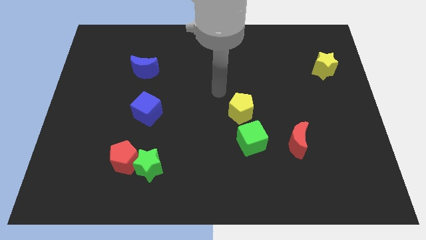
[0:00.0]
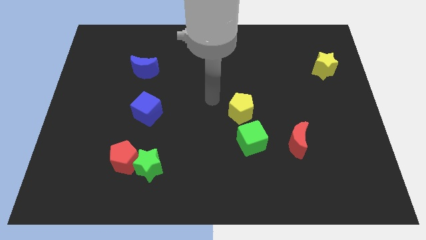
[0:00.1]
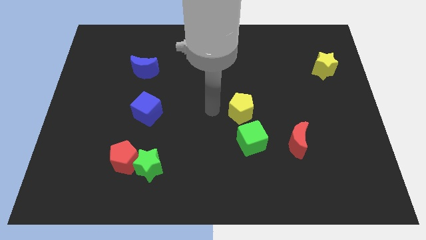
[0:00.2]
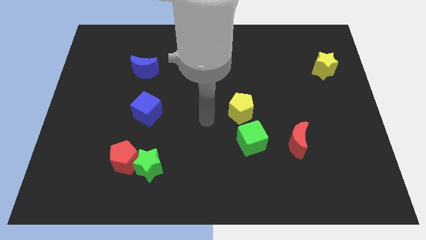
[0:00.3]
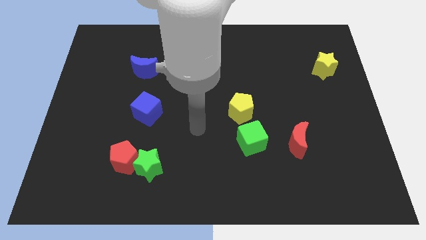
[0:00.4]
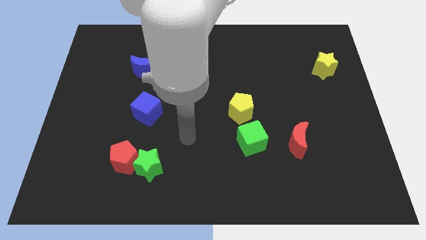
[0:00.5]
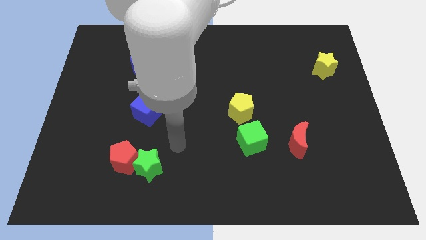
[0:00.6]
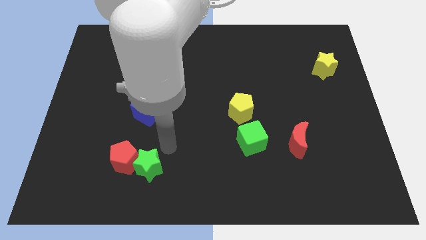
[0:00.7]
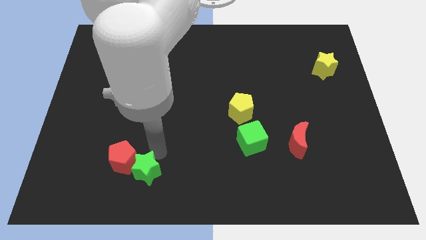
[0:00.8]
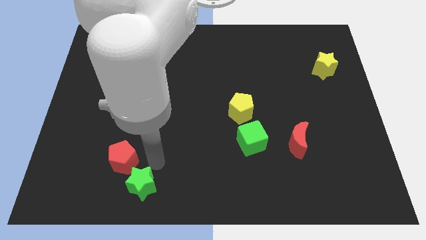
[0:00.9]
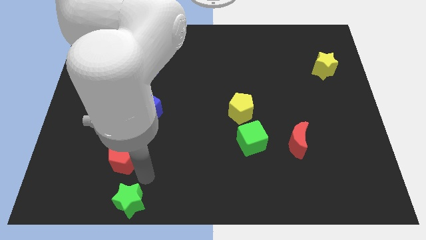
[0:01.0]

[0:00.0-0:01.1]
move the red pentagon away from the green star

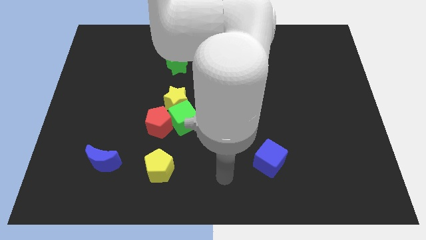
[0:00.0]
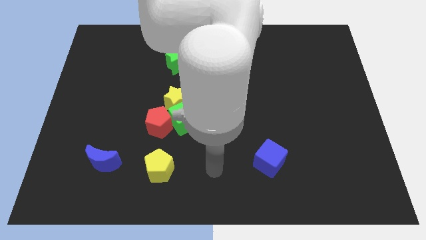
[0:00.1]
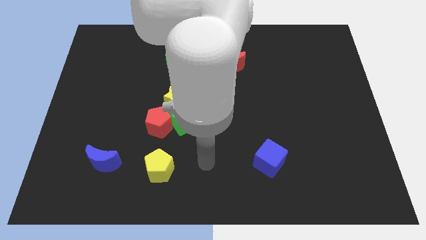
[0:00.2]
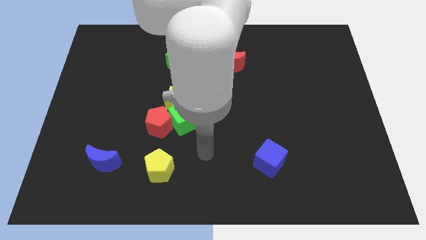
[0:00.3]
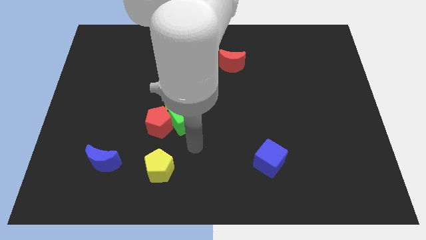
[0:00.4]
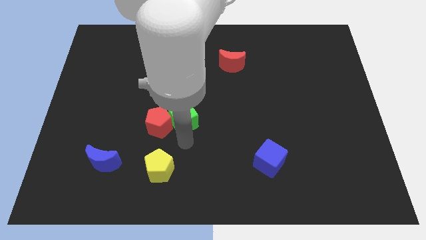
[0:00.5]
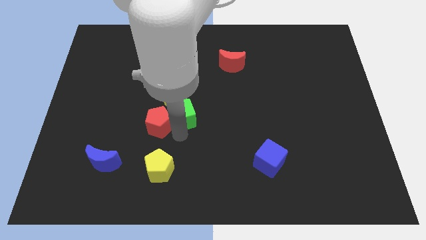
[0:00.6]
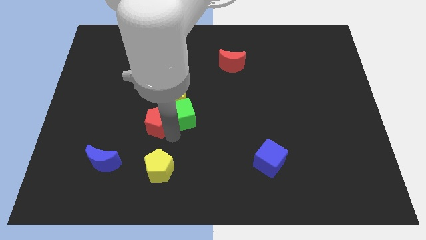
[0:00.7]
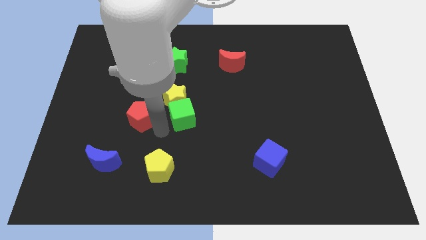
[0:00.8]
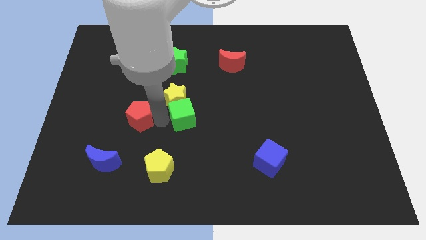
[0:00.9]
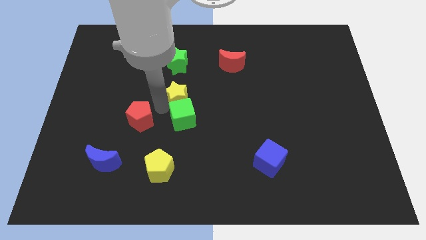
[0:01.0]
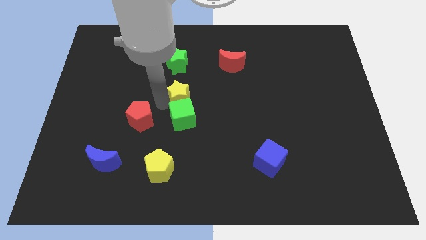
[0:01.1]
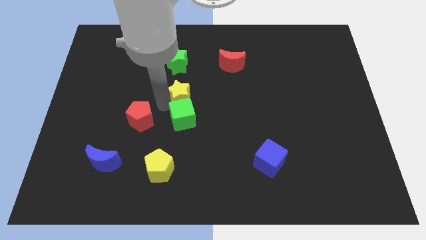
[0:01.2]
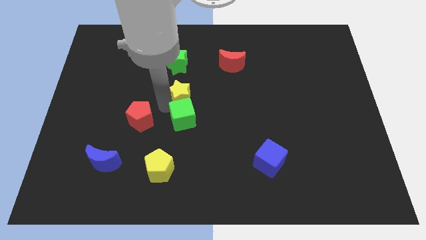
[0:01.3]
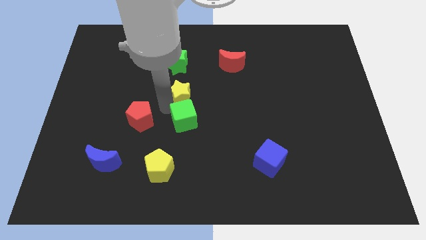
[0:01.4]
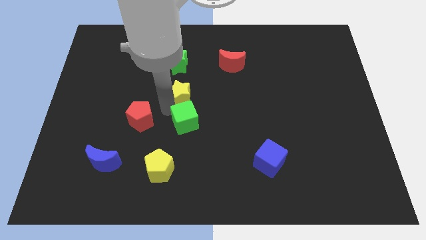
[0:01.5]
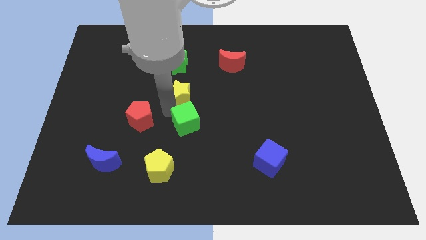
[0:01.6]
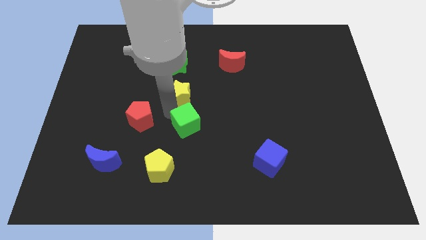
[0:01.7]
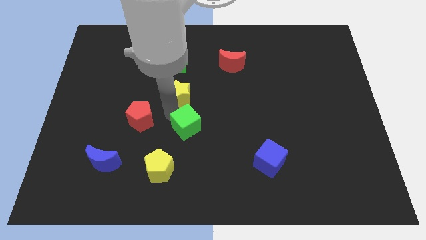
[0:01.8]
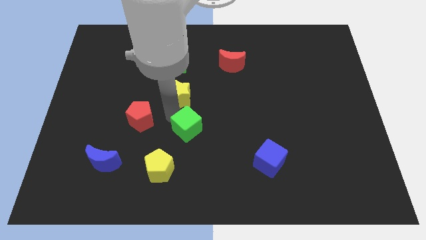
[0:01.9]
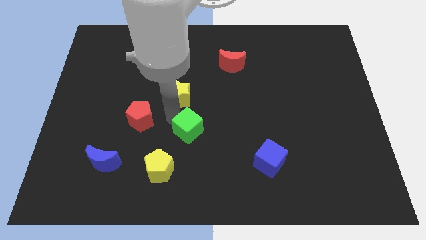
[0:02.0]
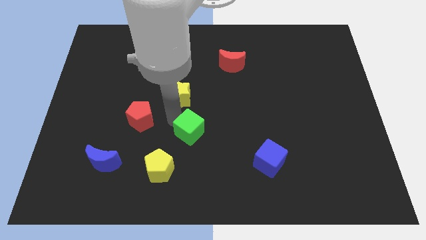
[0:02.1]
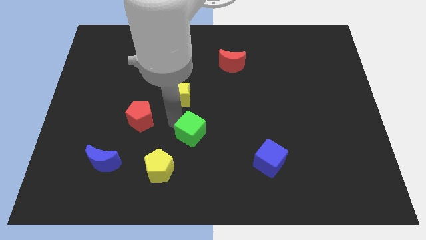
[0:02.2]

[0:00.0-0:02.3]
pull the green cube apart from the yellow star and red pentagon

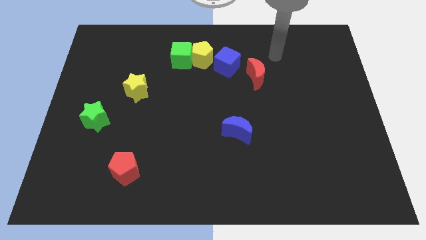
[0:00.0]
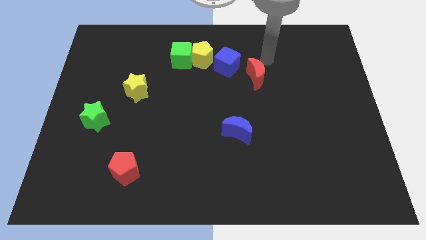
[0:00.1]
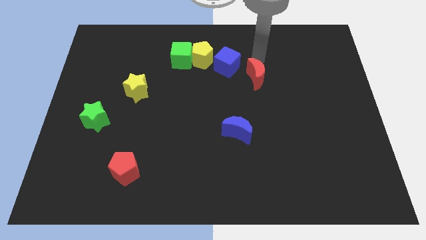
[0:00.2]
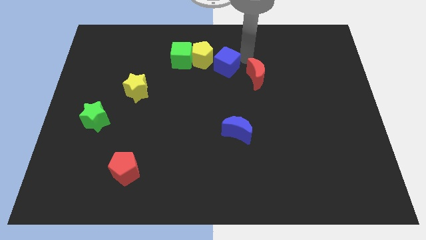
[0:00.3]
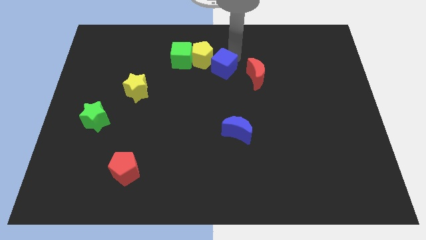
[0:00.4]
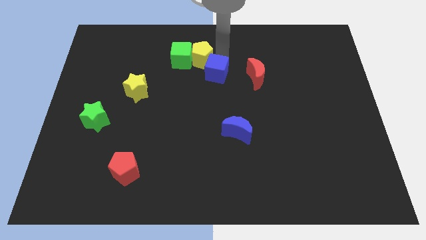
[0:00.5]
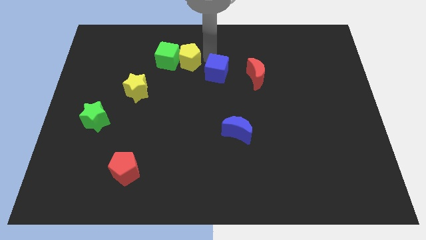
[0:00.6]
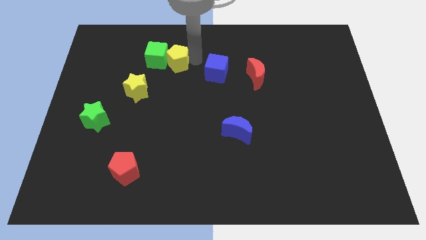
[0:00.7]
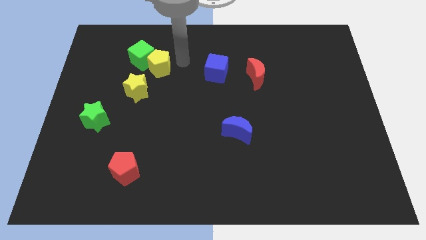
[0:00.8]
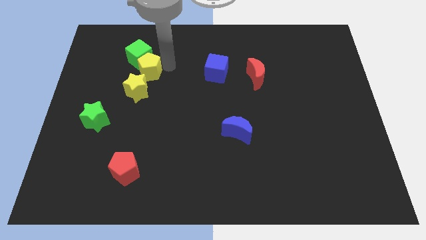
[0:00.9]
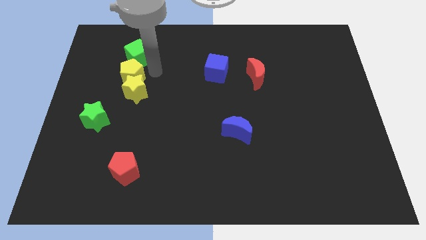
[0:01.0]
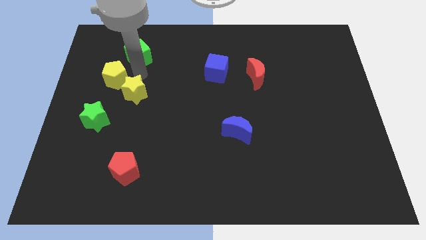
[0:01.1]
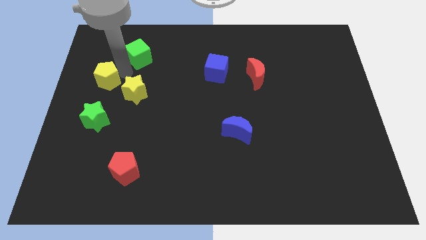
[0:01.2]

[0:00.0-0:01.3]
move the green cube away from the yellow pentagon

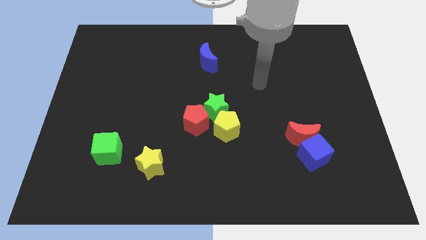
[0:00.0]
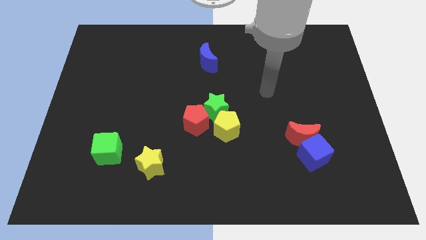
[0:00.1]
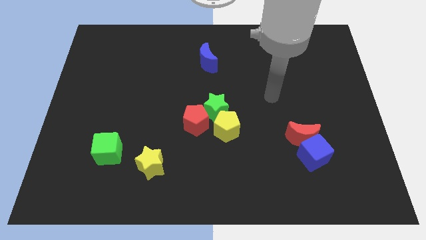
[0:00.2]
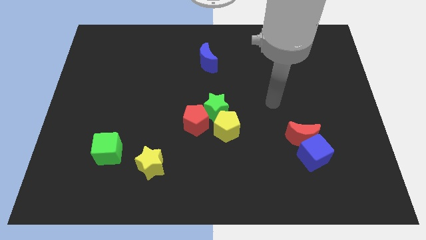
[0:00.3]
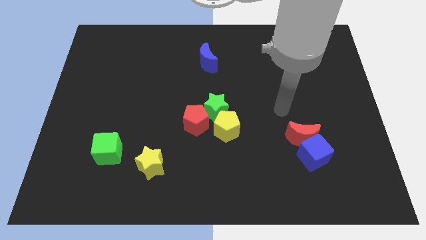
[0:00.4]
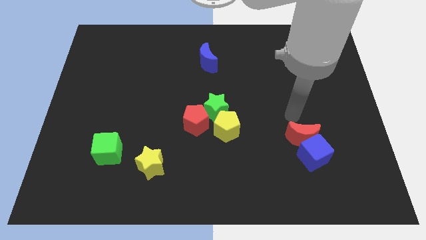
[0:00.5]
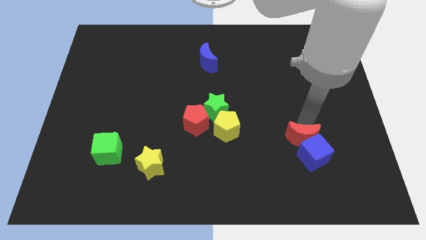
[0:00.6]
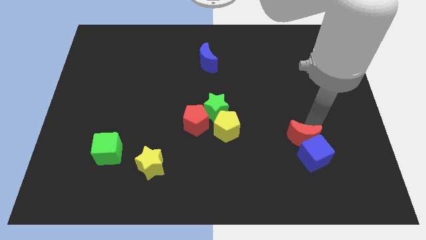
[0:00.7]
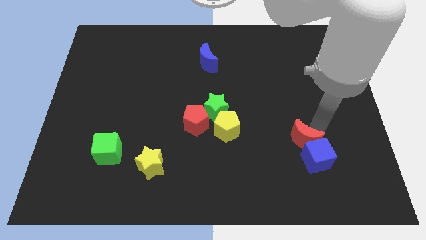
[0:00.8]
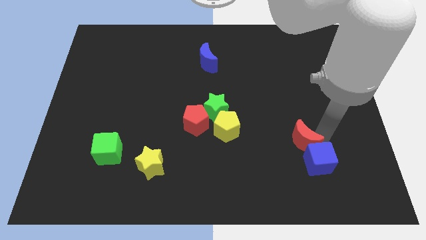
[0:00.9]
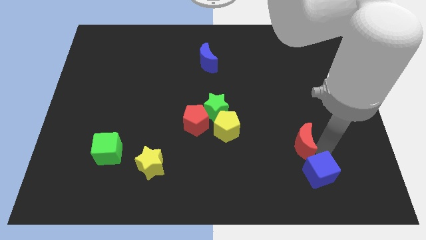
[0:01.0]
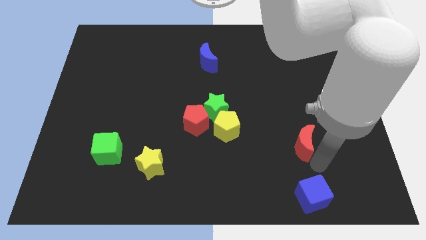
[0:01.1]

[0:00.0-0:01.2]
pull the red moon apart from the blue cube

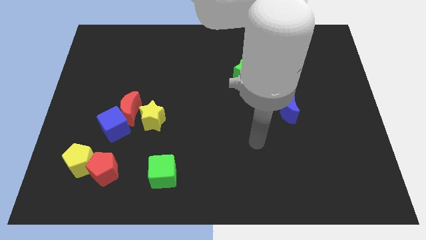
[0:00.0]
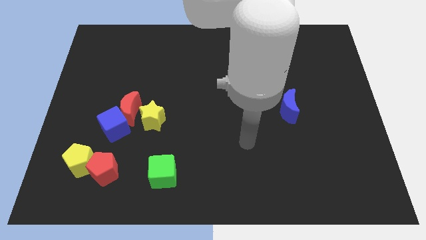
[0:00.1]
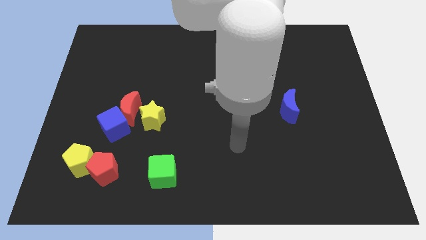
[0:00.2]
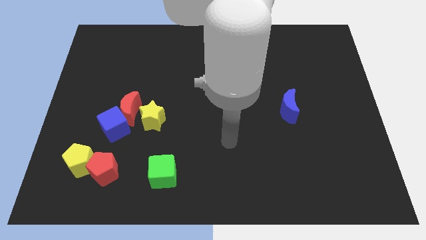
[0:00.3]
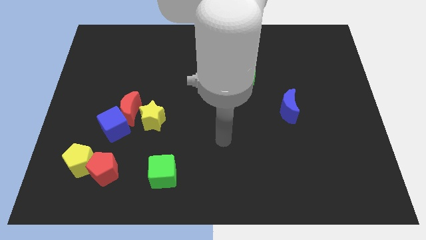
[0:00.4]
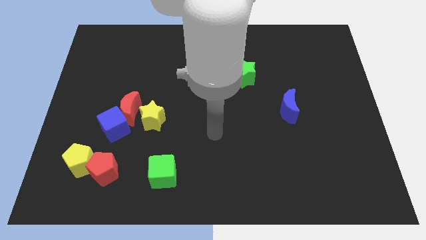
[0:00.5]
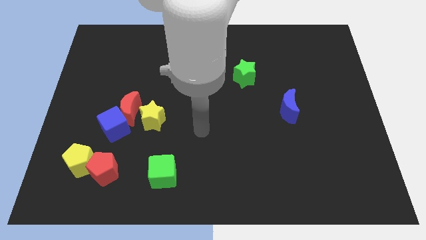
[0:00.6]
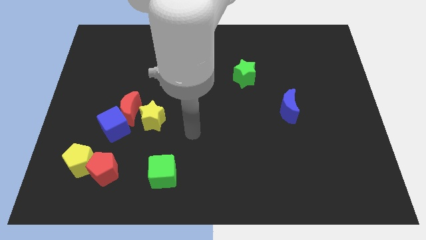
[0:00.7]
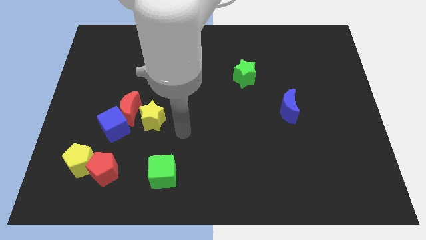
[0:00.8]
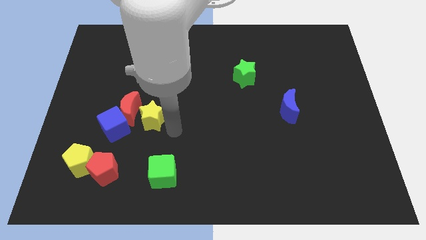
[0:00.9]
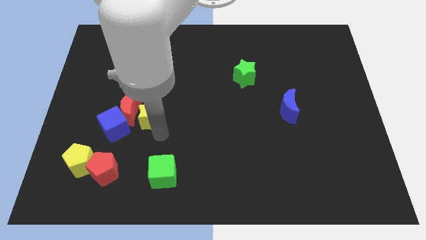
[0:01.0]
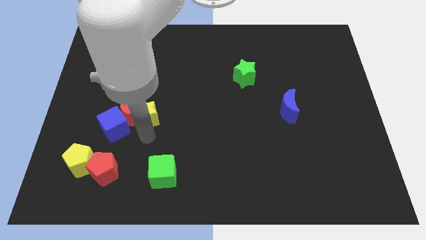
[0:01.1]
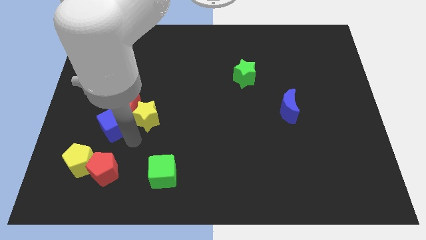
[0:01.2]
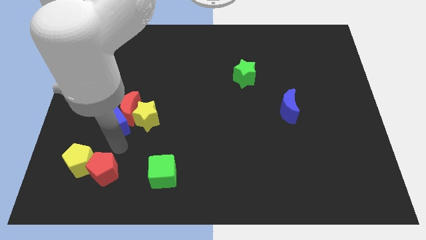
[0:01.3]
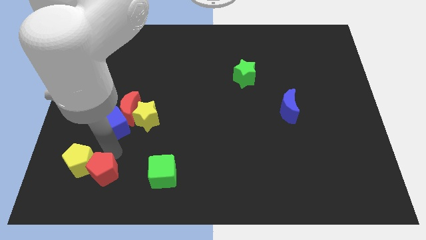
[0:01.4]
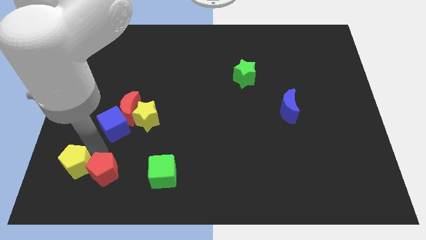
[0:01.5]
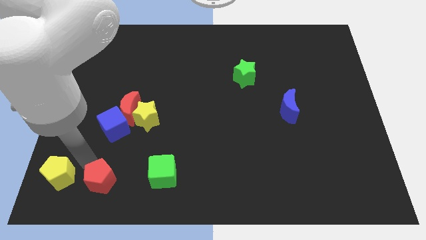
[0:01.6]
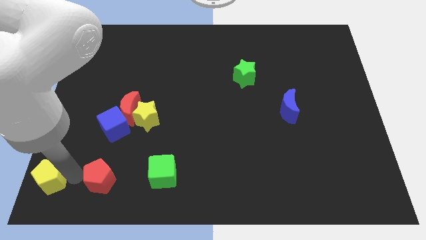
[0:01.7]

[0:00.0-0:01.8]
separate the red pentagon from the yellow pentagon

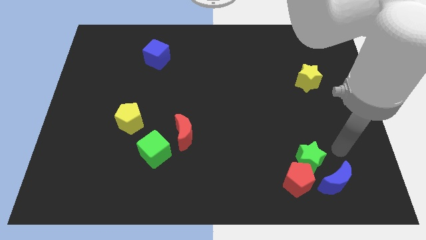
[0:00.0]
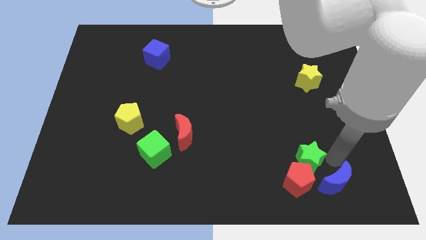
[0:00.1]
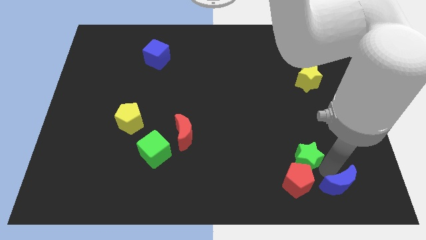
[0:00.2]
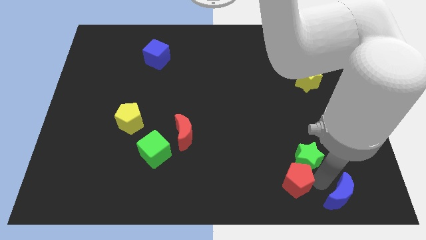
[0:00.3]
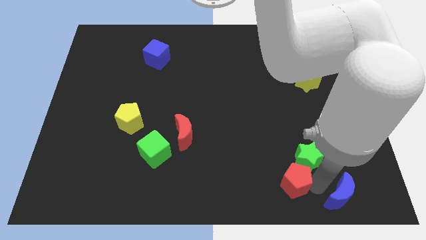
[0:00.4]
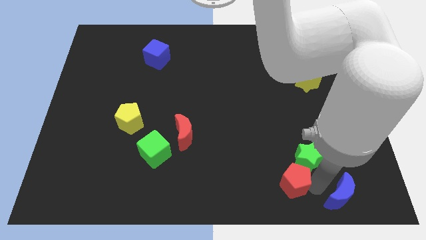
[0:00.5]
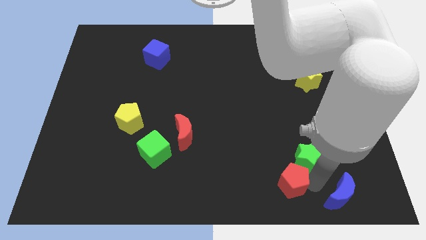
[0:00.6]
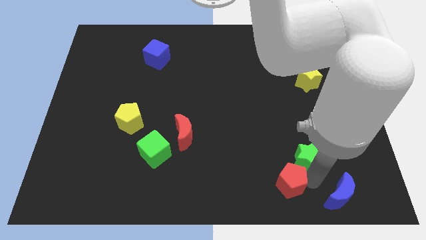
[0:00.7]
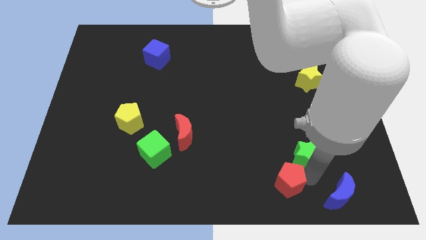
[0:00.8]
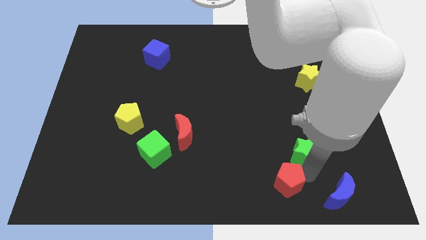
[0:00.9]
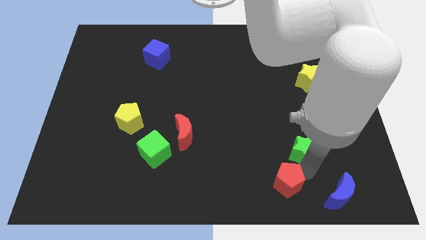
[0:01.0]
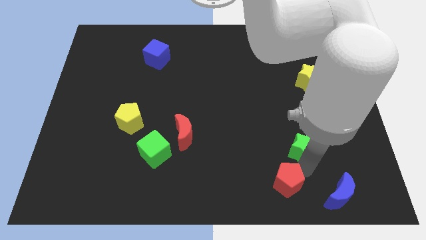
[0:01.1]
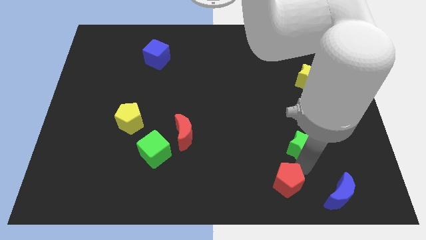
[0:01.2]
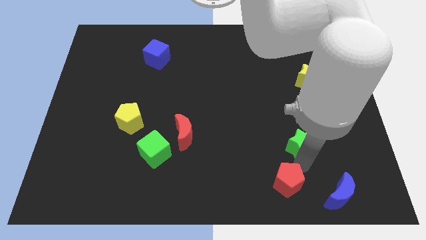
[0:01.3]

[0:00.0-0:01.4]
separate the green star from the red pentagon and blue moon

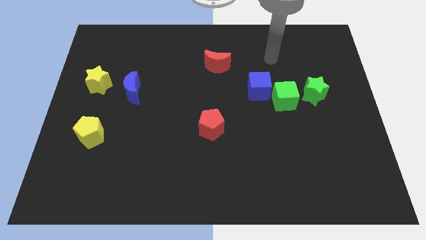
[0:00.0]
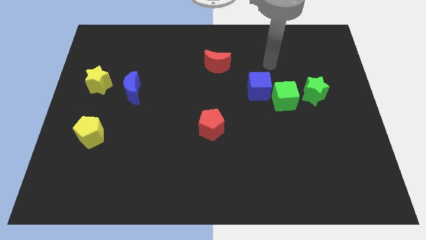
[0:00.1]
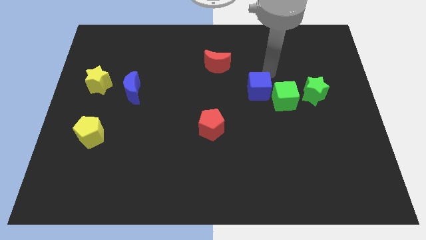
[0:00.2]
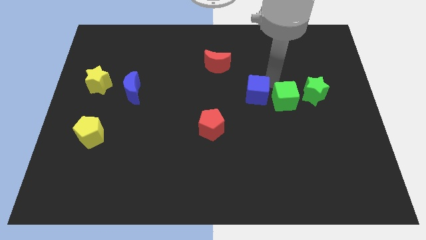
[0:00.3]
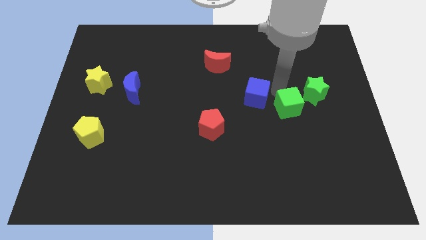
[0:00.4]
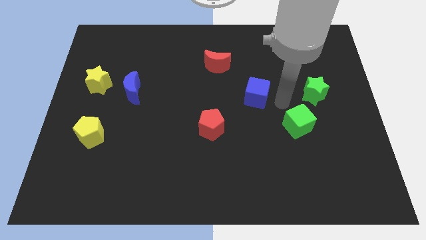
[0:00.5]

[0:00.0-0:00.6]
pull the blue cube apart from the green cube
